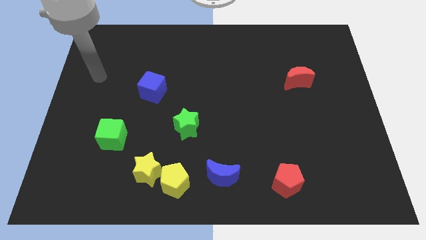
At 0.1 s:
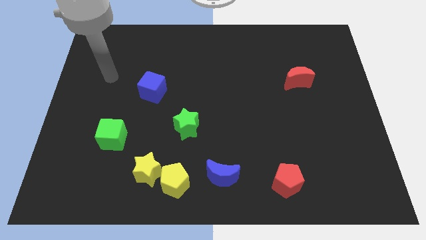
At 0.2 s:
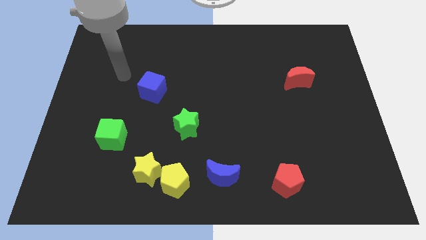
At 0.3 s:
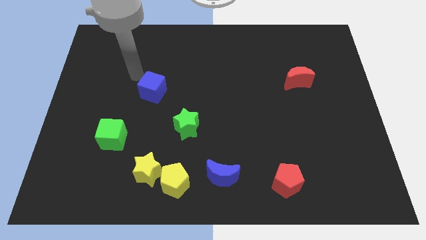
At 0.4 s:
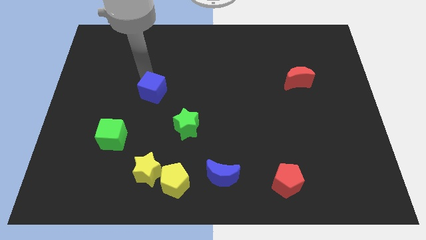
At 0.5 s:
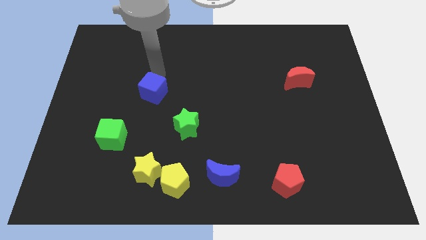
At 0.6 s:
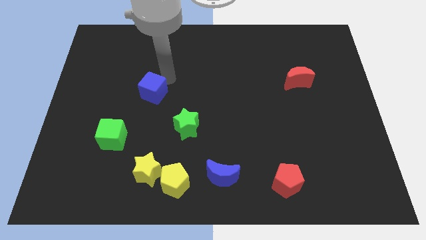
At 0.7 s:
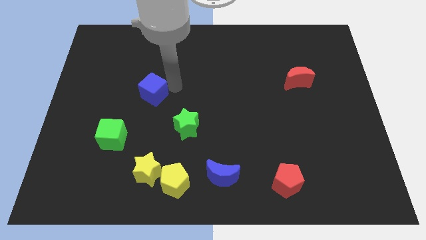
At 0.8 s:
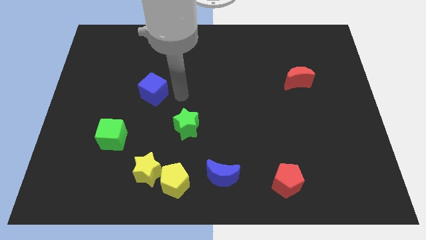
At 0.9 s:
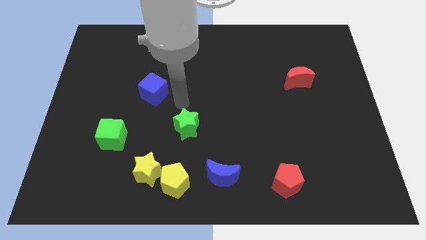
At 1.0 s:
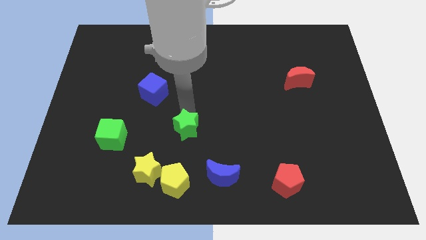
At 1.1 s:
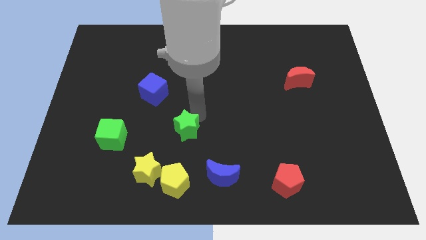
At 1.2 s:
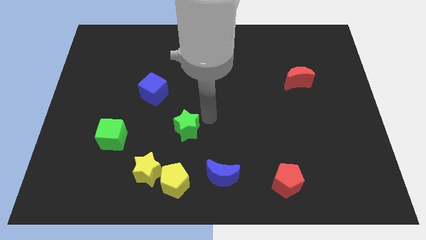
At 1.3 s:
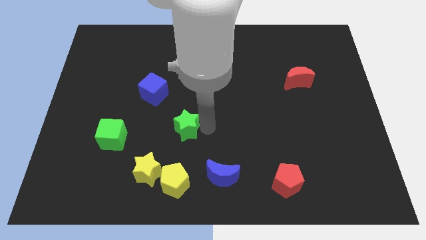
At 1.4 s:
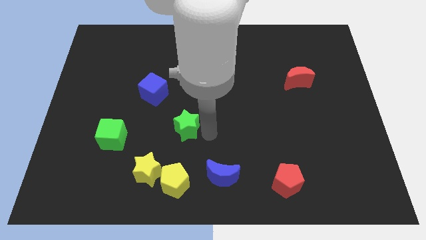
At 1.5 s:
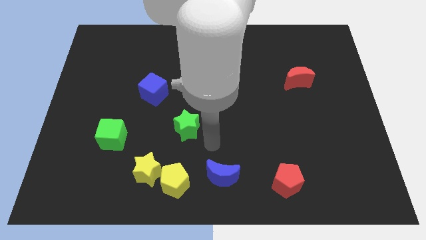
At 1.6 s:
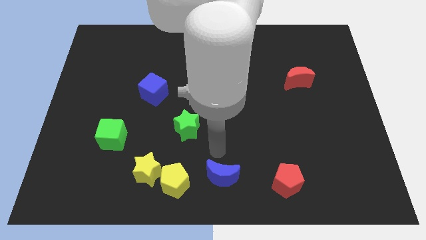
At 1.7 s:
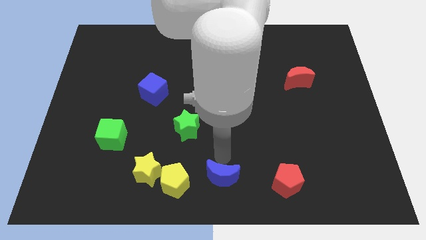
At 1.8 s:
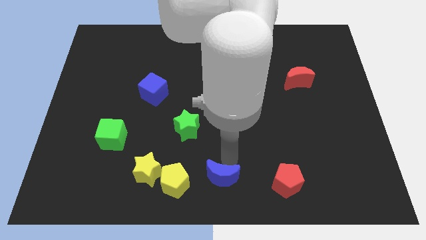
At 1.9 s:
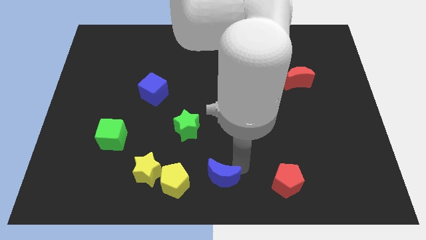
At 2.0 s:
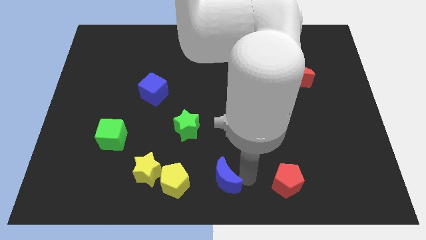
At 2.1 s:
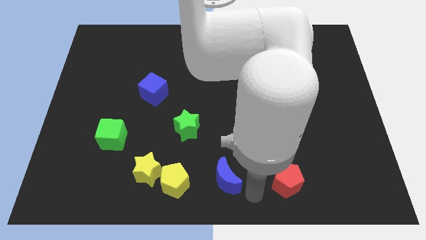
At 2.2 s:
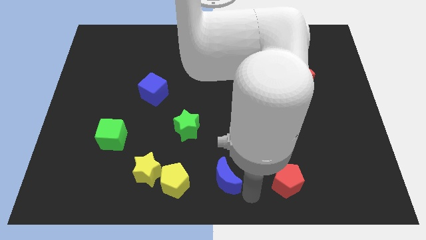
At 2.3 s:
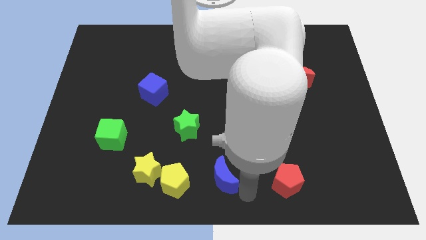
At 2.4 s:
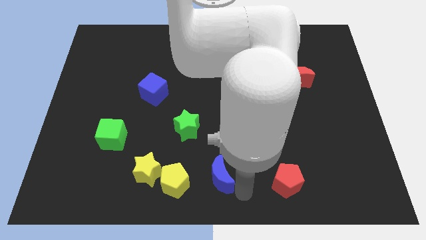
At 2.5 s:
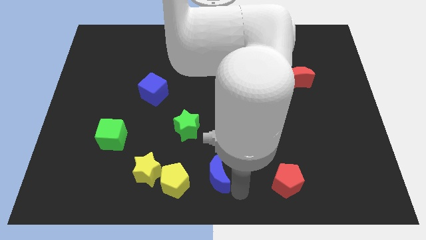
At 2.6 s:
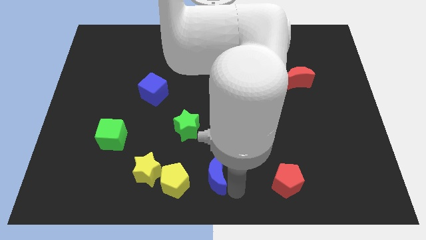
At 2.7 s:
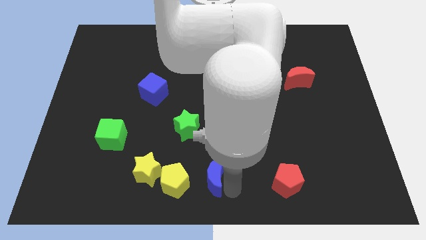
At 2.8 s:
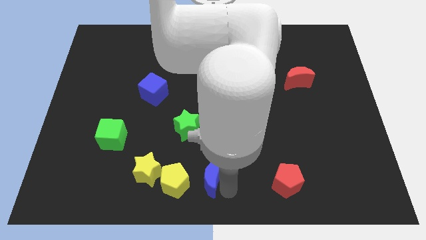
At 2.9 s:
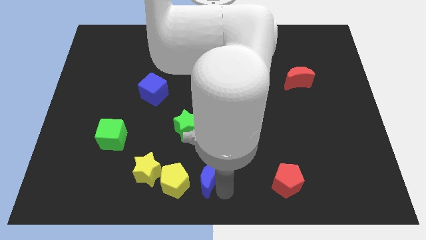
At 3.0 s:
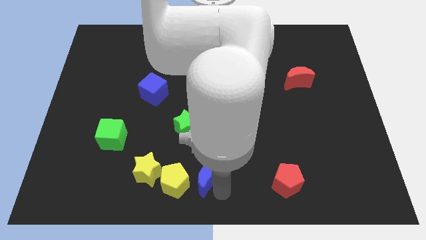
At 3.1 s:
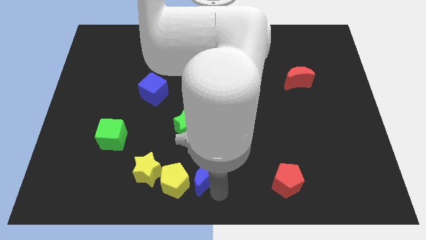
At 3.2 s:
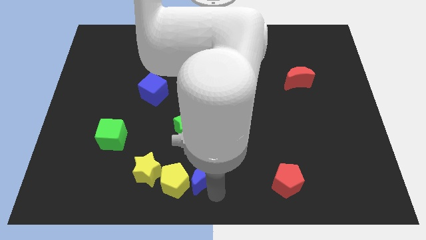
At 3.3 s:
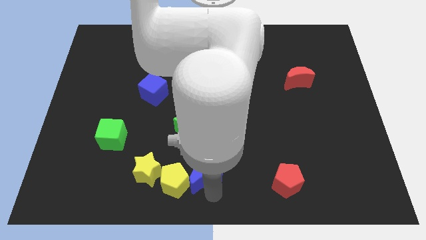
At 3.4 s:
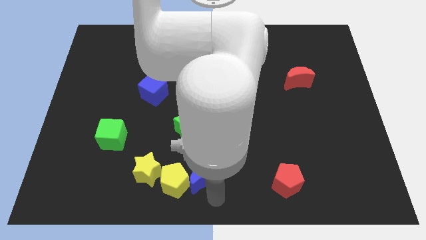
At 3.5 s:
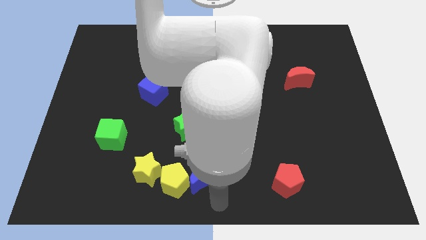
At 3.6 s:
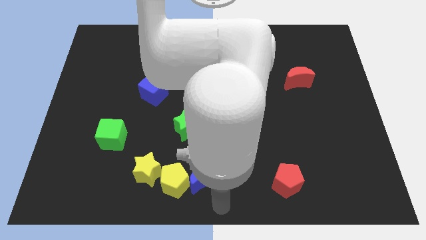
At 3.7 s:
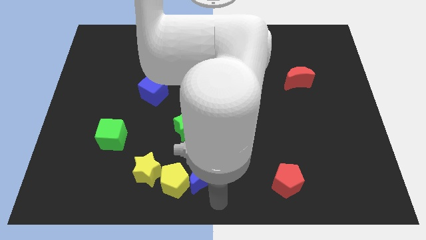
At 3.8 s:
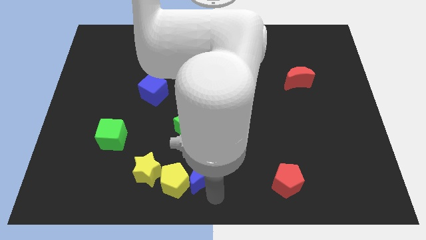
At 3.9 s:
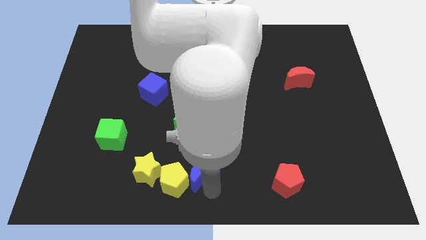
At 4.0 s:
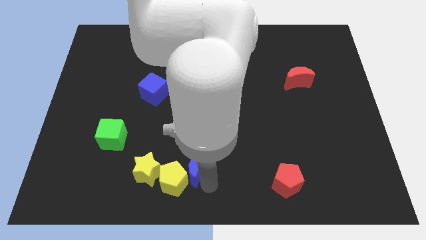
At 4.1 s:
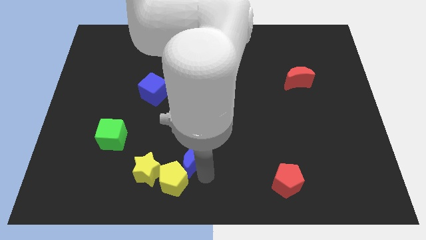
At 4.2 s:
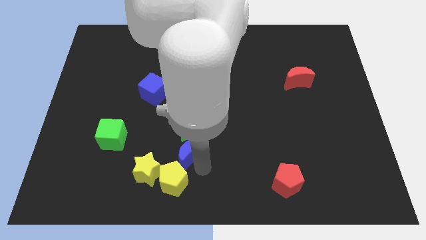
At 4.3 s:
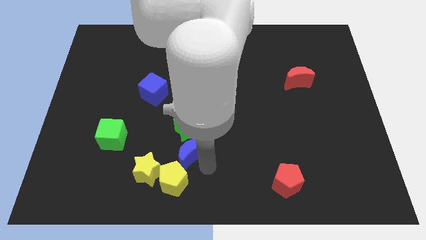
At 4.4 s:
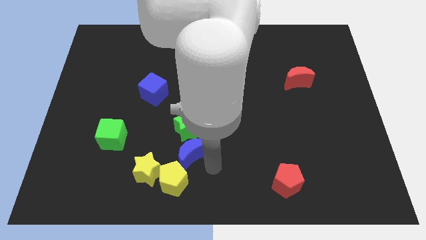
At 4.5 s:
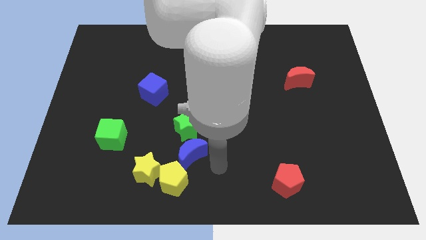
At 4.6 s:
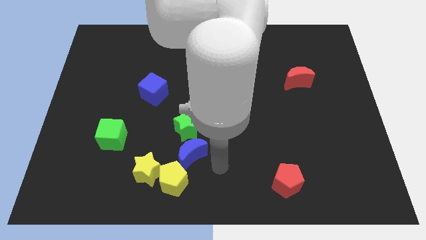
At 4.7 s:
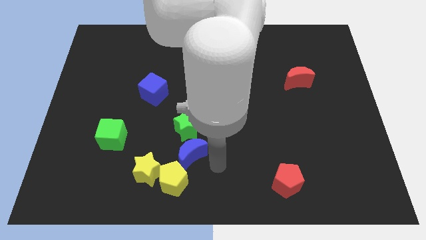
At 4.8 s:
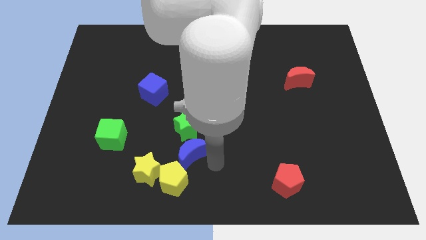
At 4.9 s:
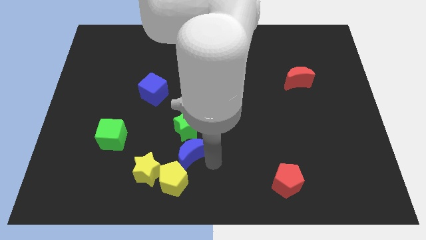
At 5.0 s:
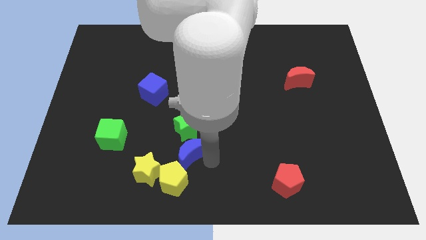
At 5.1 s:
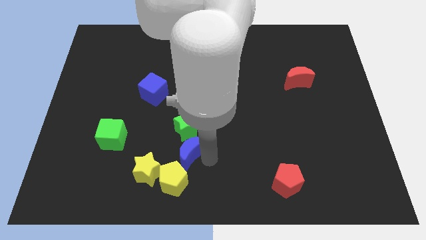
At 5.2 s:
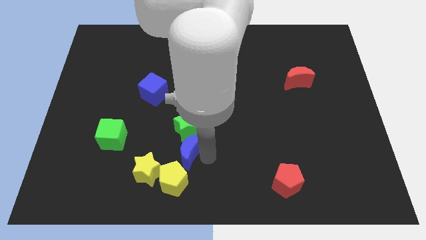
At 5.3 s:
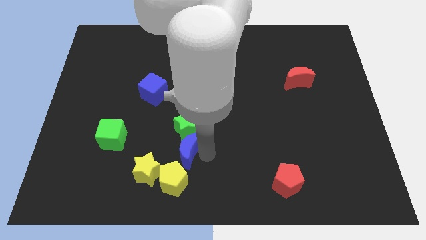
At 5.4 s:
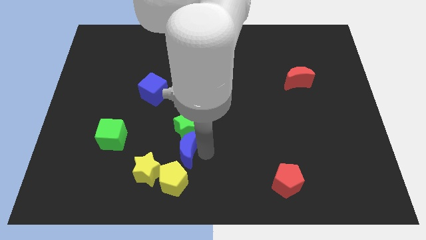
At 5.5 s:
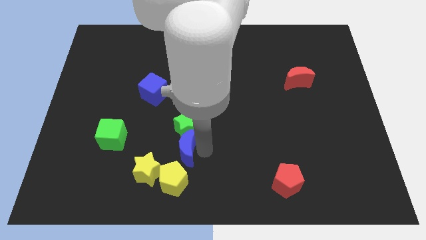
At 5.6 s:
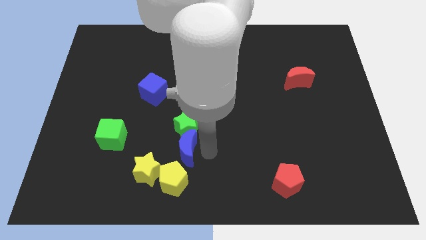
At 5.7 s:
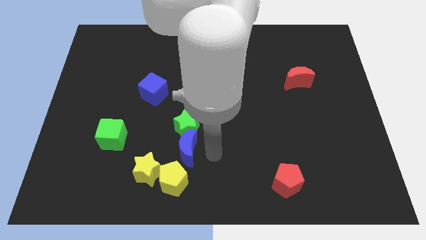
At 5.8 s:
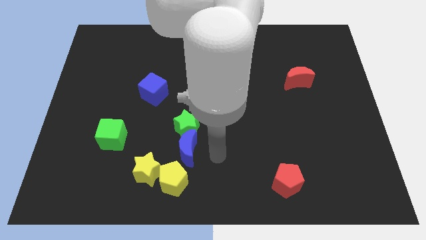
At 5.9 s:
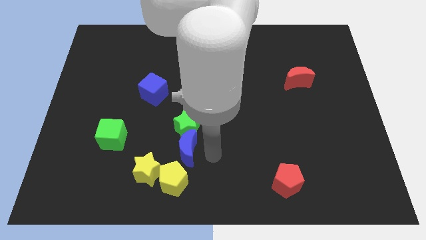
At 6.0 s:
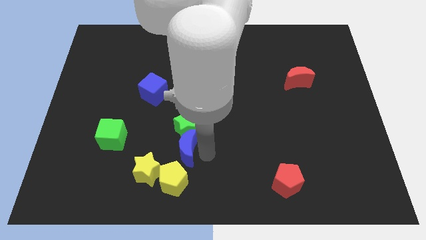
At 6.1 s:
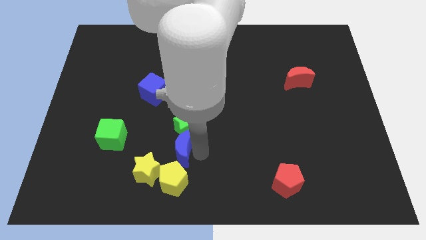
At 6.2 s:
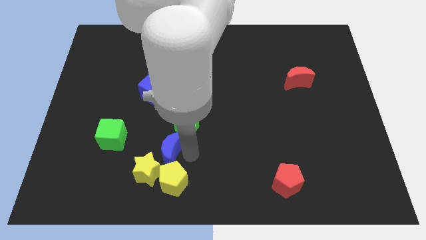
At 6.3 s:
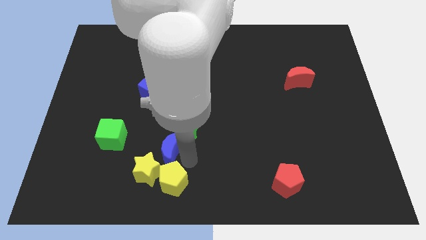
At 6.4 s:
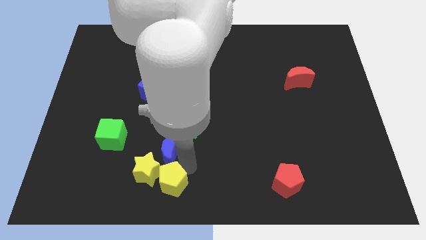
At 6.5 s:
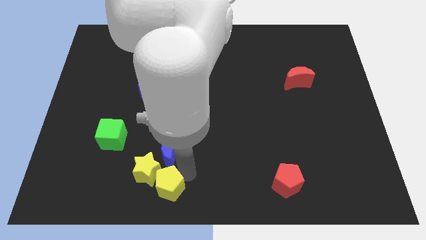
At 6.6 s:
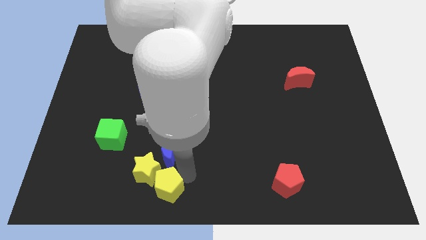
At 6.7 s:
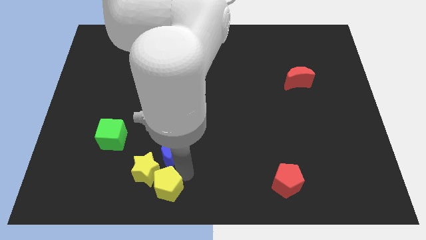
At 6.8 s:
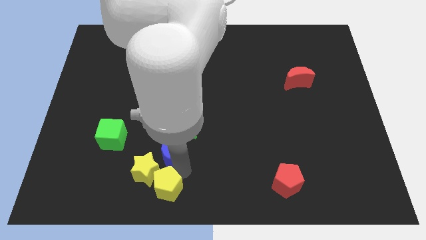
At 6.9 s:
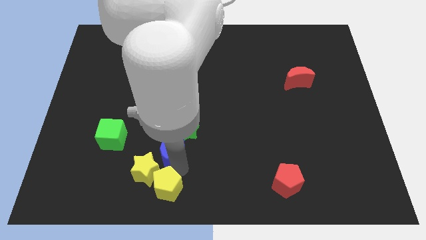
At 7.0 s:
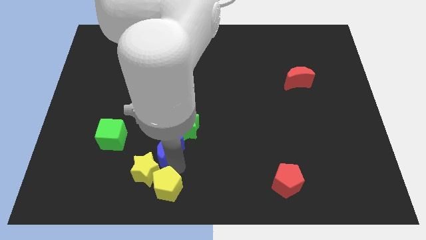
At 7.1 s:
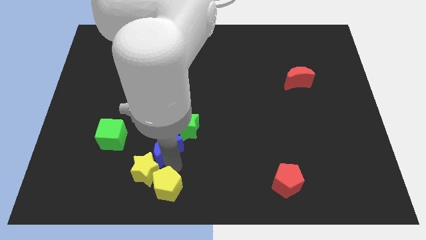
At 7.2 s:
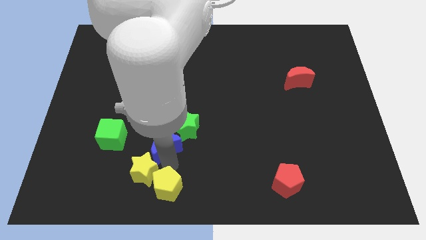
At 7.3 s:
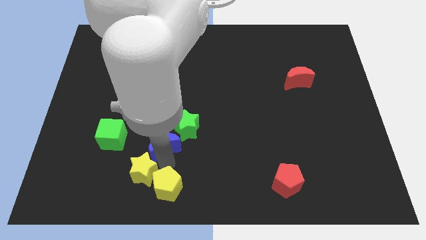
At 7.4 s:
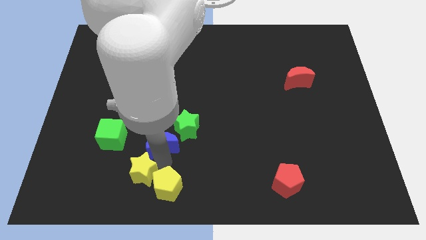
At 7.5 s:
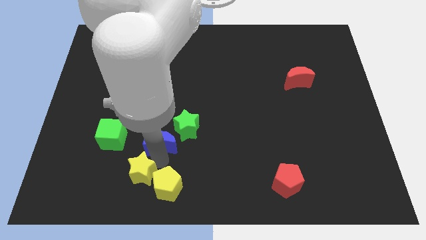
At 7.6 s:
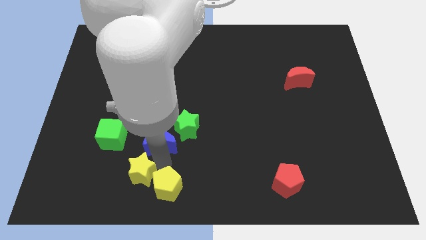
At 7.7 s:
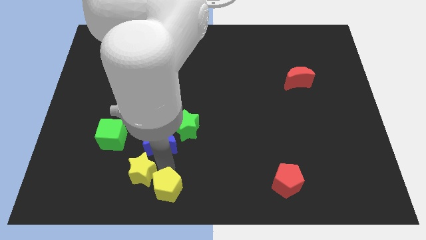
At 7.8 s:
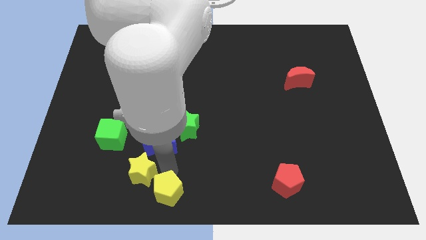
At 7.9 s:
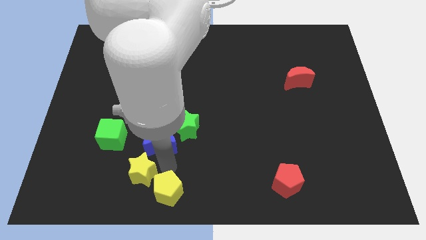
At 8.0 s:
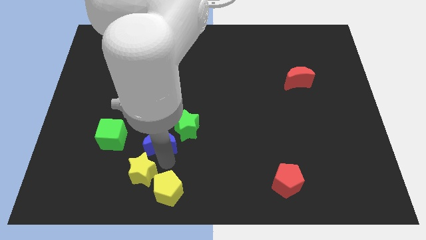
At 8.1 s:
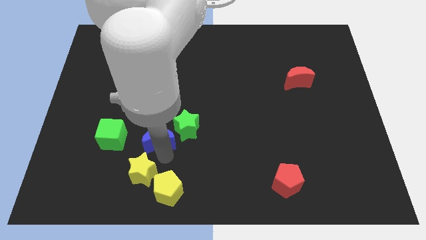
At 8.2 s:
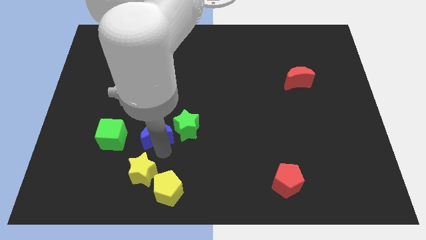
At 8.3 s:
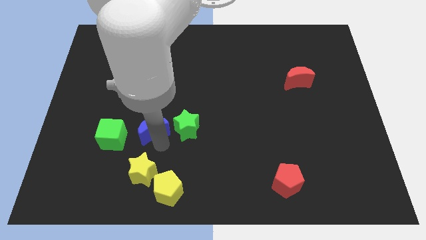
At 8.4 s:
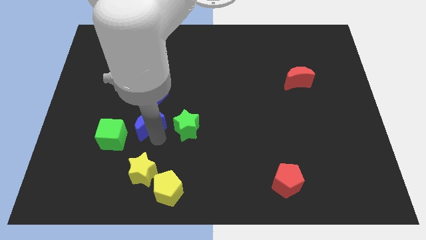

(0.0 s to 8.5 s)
slide the blue moon up and to the left

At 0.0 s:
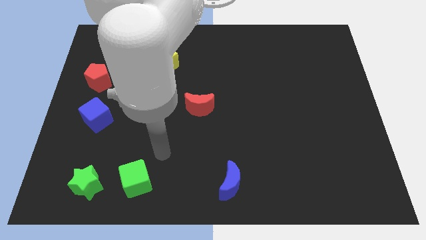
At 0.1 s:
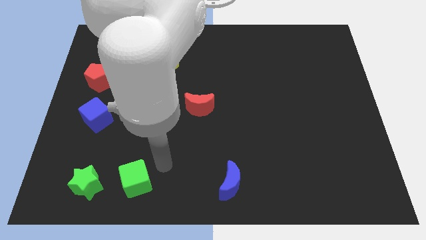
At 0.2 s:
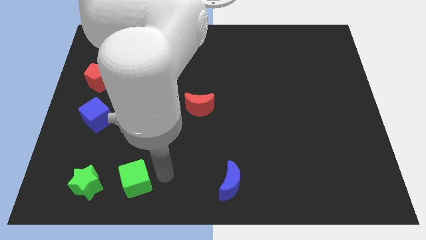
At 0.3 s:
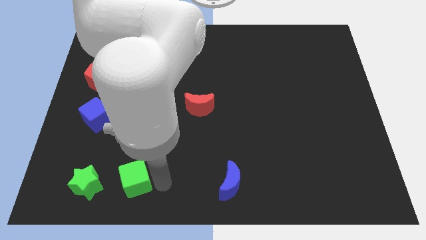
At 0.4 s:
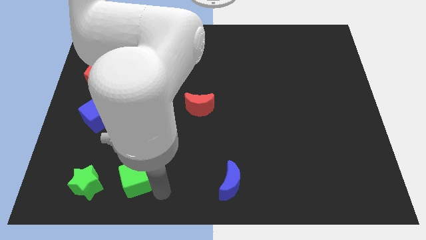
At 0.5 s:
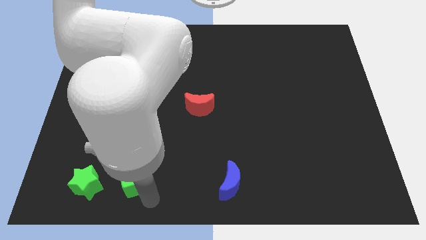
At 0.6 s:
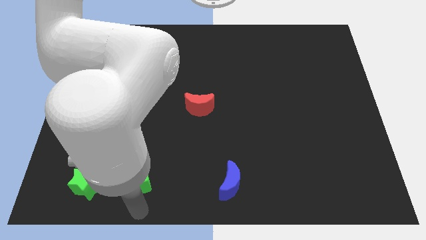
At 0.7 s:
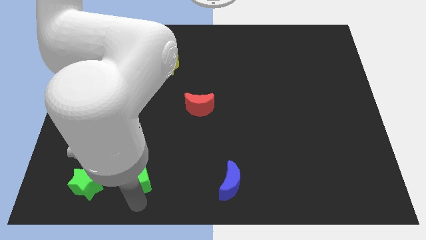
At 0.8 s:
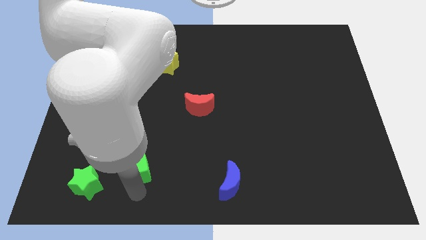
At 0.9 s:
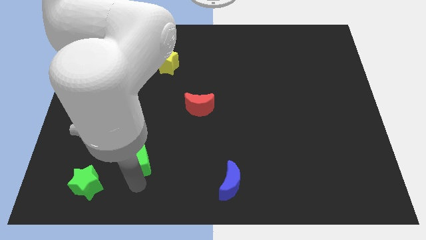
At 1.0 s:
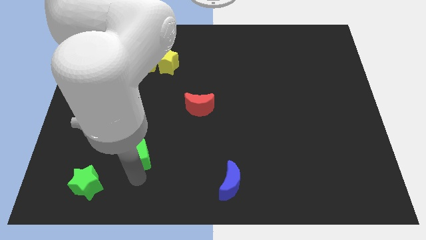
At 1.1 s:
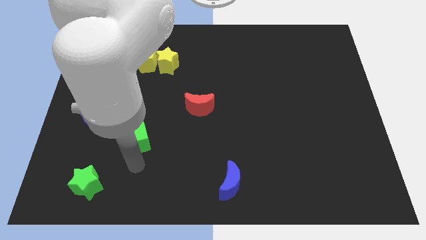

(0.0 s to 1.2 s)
slide the green cube up a little bit
